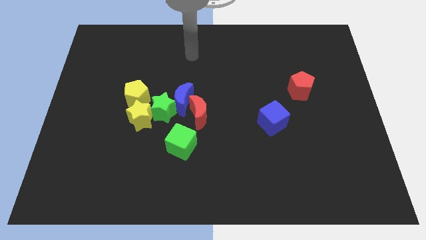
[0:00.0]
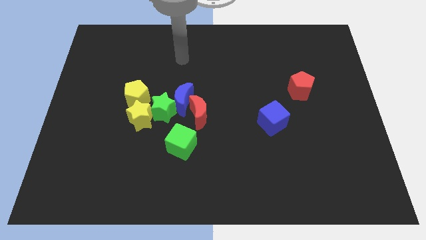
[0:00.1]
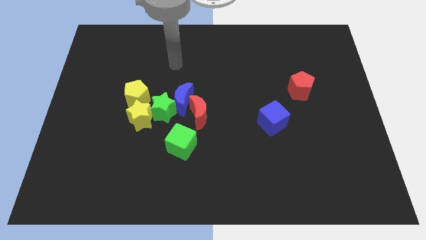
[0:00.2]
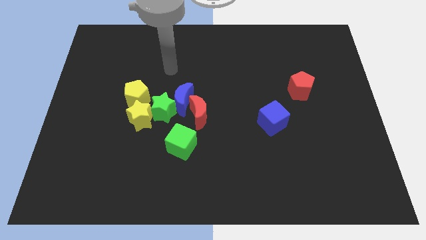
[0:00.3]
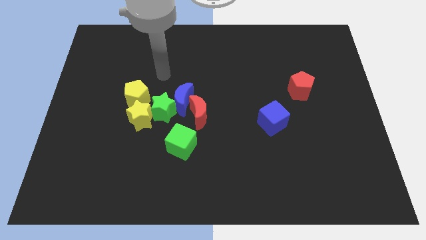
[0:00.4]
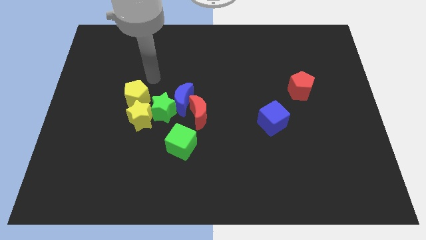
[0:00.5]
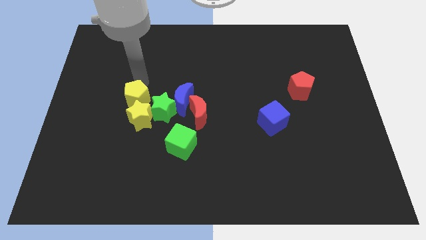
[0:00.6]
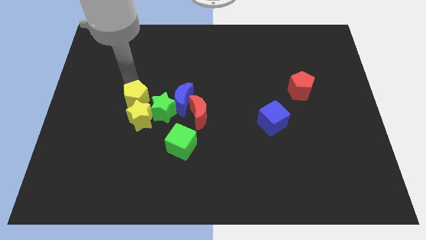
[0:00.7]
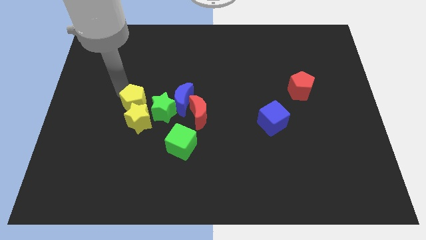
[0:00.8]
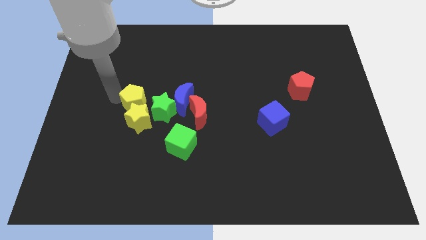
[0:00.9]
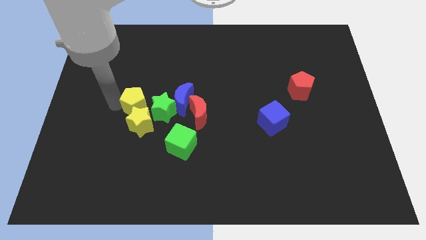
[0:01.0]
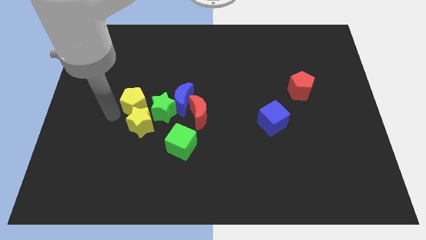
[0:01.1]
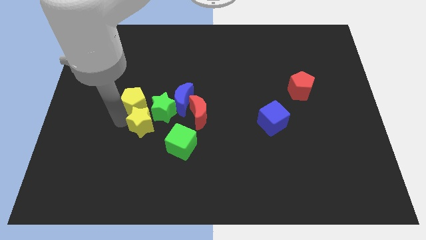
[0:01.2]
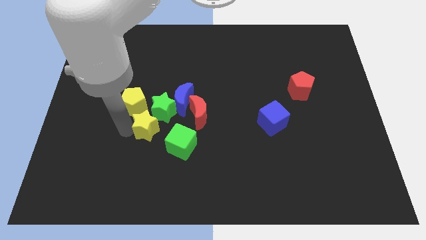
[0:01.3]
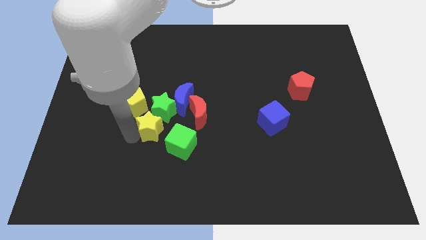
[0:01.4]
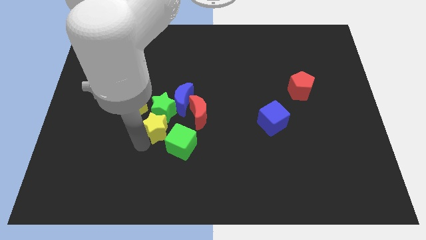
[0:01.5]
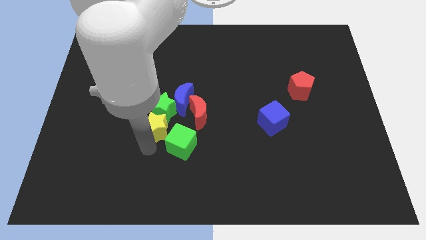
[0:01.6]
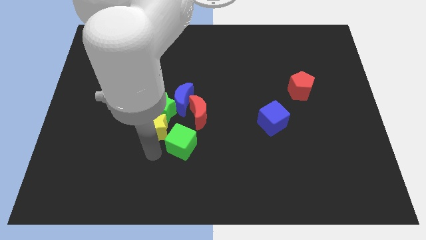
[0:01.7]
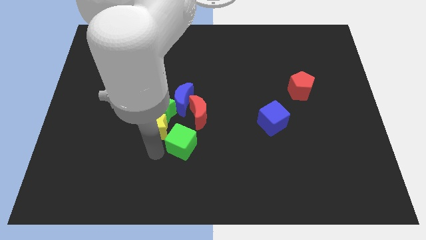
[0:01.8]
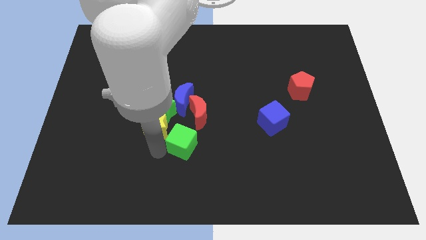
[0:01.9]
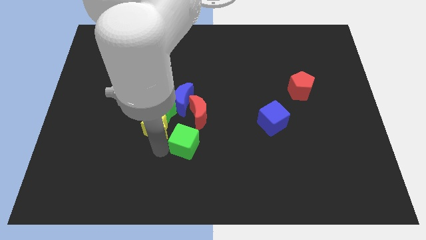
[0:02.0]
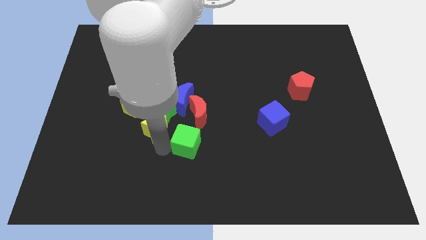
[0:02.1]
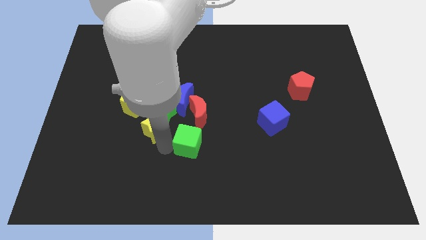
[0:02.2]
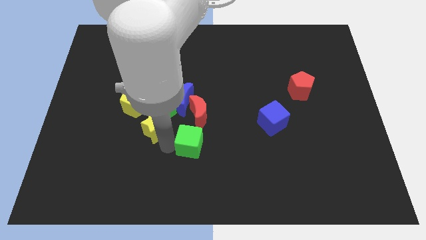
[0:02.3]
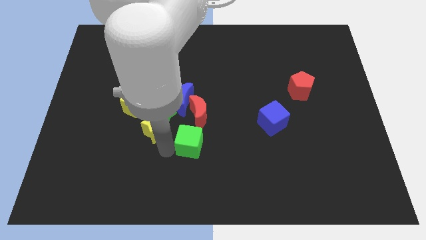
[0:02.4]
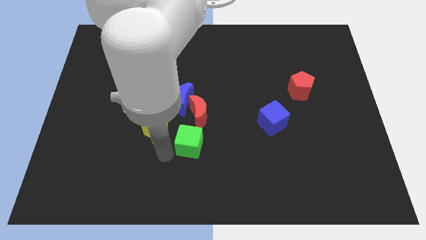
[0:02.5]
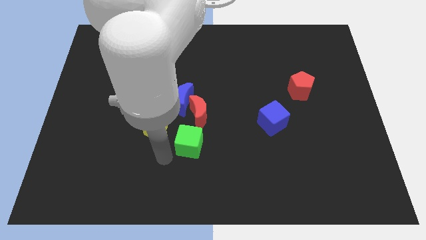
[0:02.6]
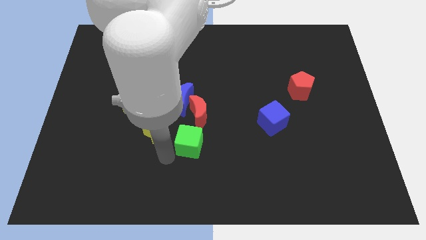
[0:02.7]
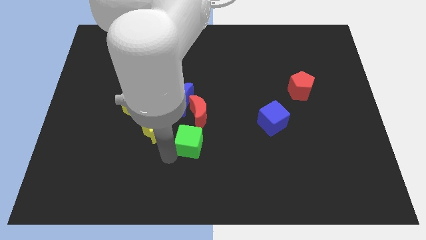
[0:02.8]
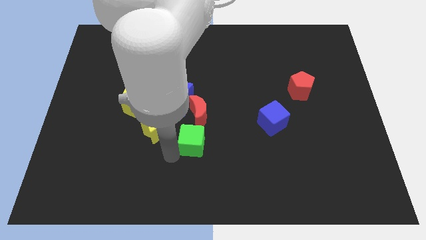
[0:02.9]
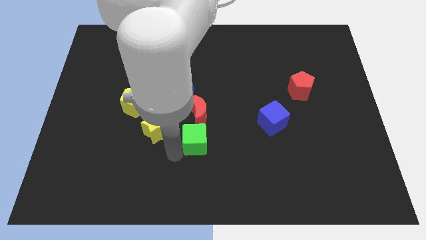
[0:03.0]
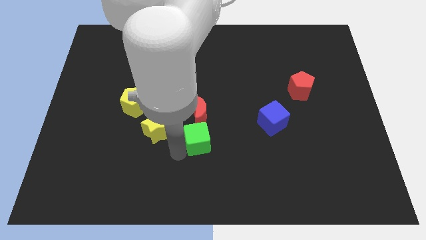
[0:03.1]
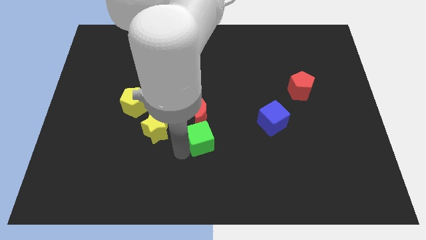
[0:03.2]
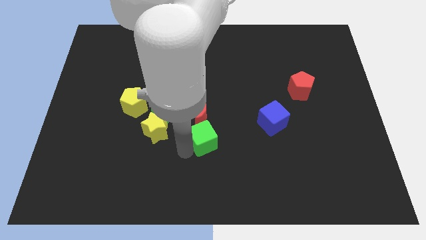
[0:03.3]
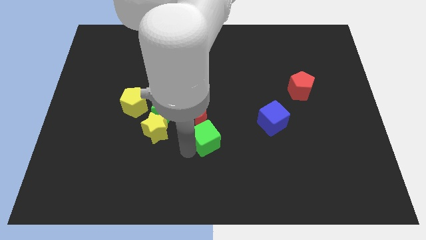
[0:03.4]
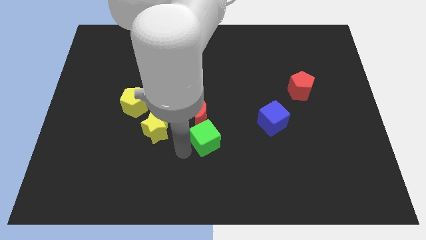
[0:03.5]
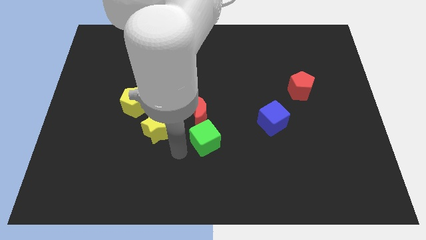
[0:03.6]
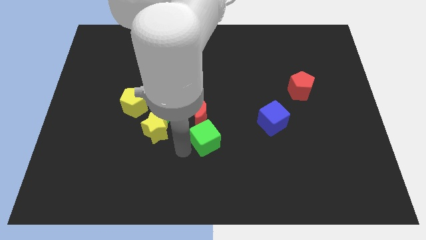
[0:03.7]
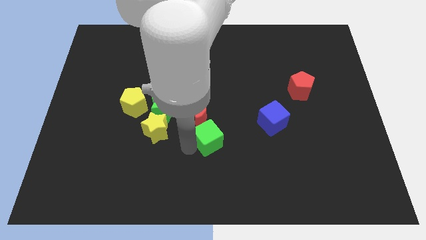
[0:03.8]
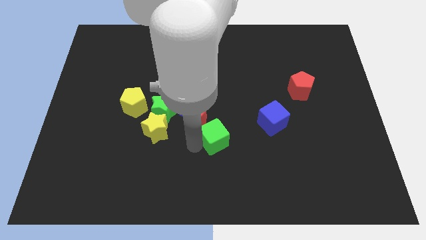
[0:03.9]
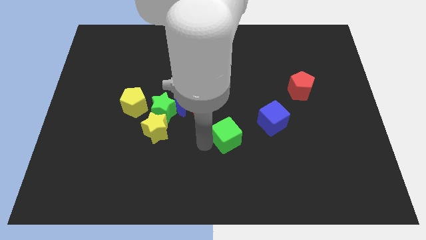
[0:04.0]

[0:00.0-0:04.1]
slide the green cube a little bit upwards and to the right

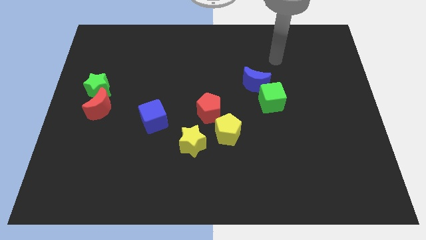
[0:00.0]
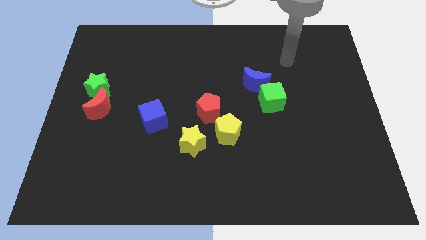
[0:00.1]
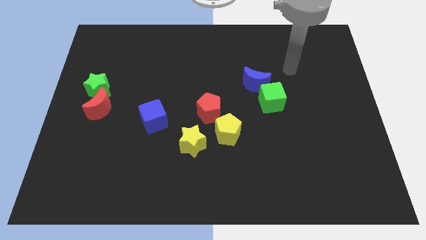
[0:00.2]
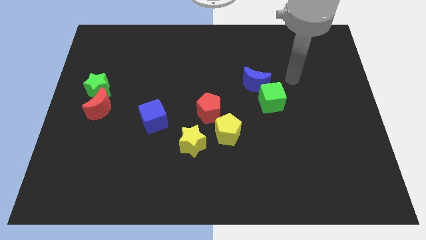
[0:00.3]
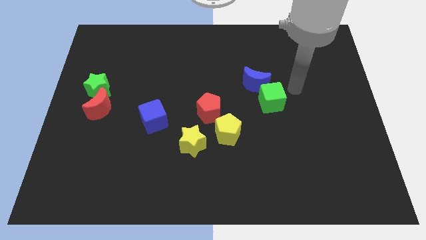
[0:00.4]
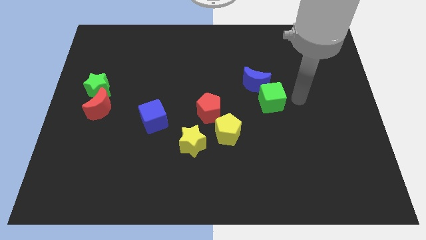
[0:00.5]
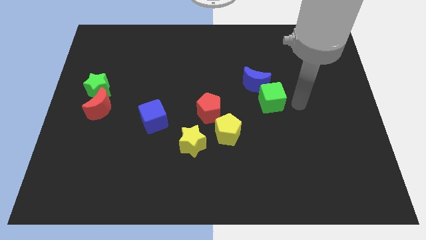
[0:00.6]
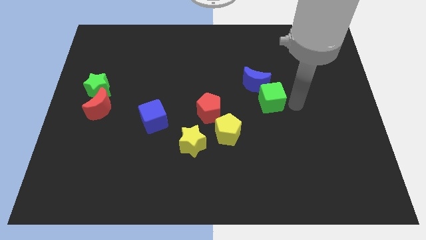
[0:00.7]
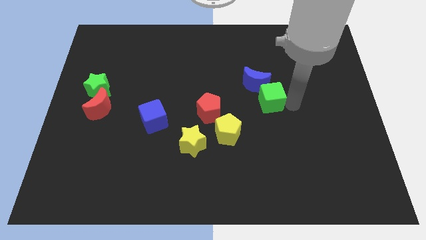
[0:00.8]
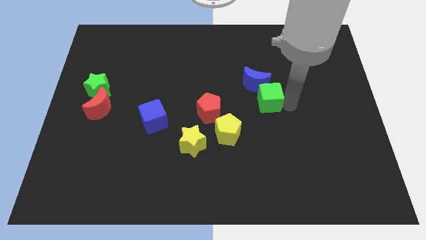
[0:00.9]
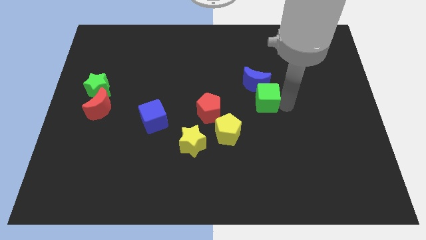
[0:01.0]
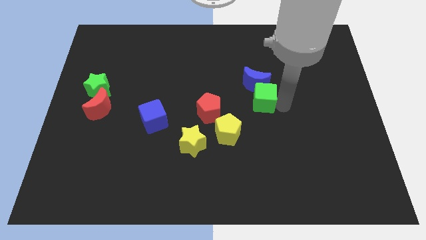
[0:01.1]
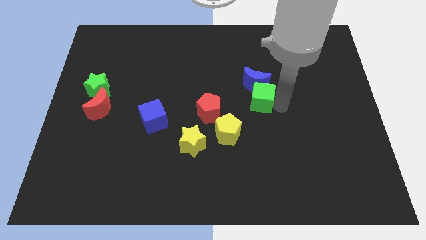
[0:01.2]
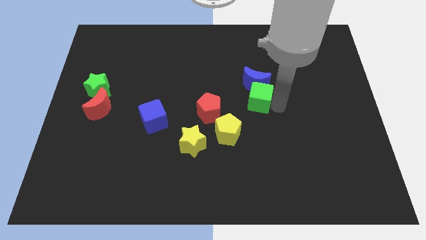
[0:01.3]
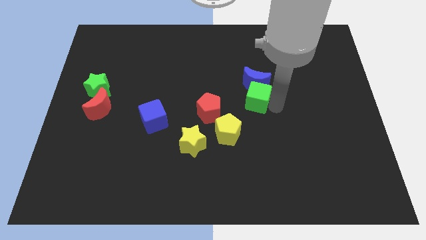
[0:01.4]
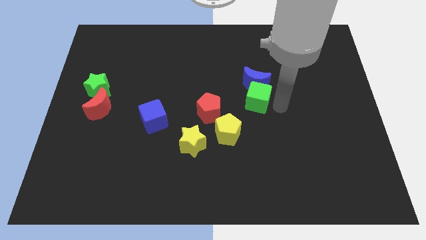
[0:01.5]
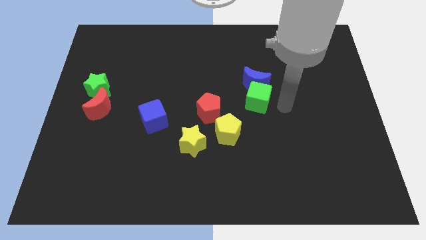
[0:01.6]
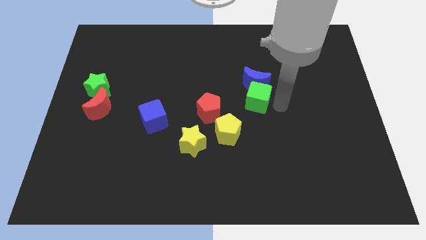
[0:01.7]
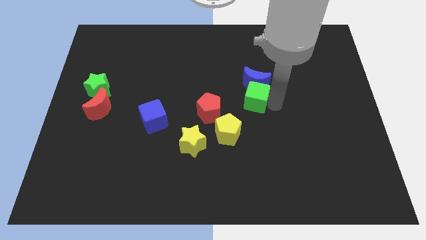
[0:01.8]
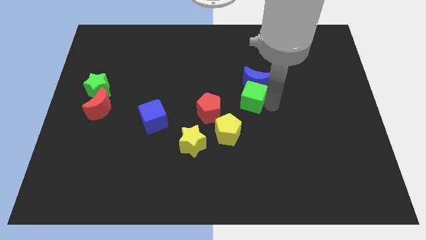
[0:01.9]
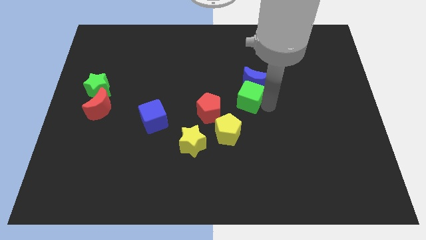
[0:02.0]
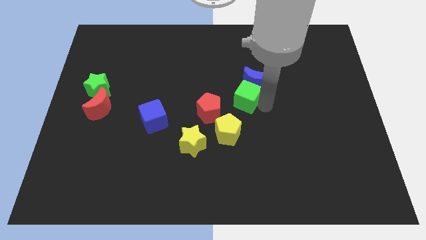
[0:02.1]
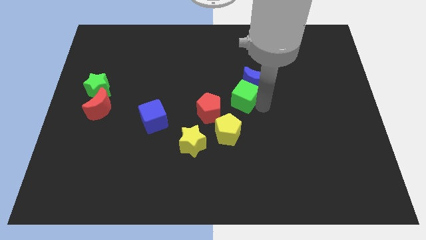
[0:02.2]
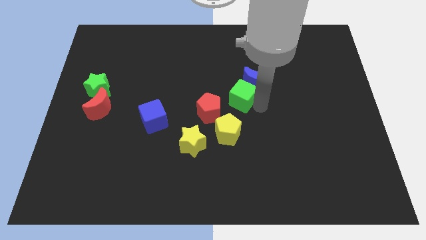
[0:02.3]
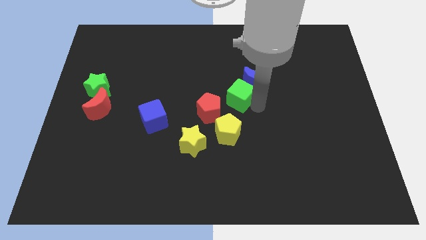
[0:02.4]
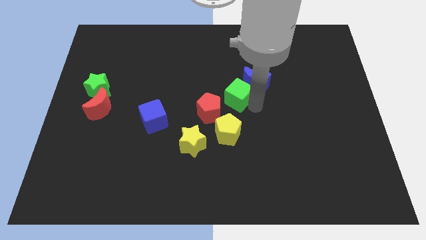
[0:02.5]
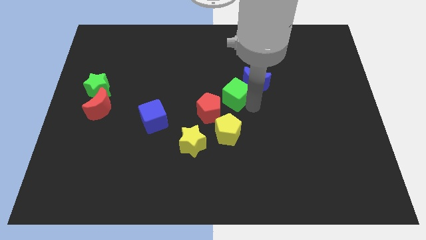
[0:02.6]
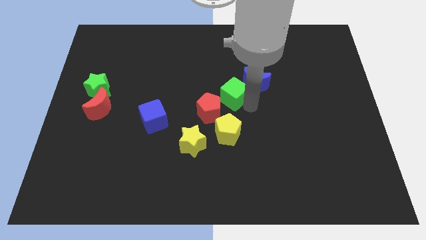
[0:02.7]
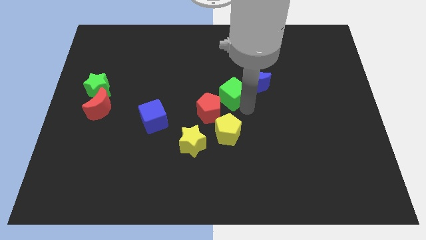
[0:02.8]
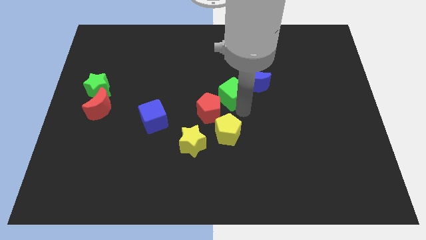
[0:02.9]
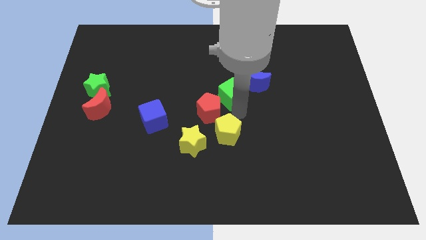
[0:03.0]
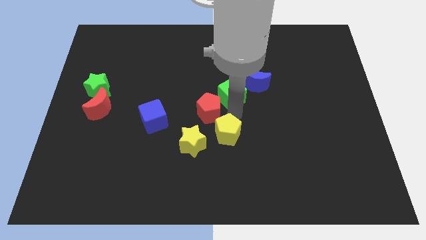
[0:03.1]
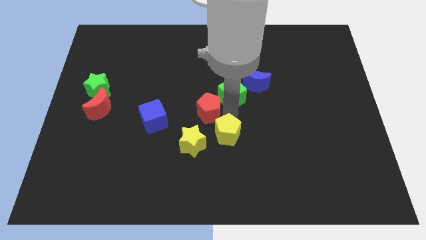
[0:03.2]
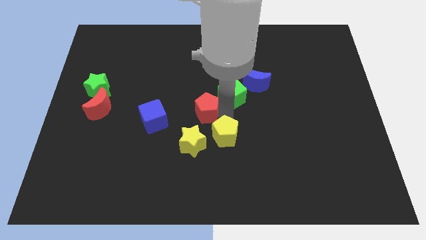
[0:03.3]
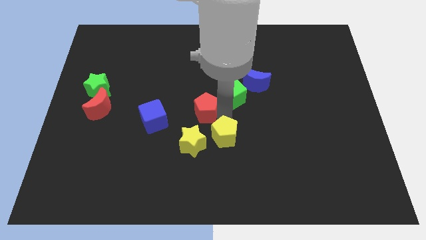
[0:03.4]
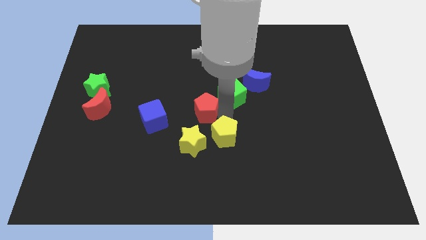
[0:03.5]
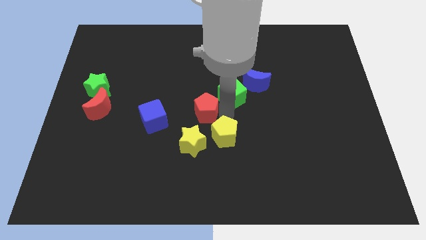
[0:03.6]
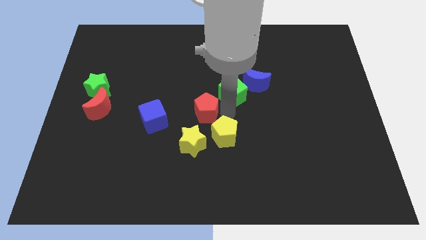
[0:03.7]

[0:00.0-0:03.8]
move the green cube up and left a bit
